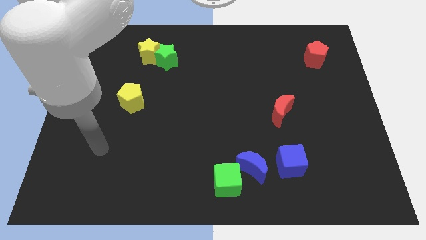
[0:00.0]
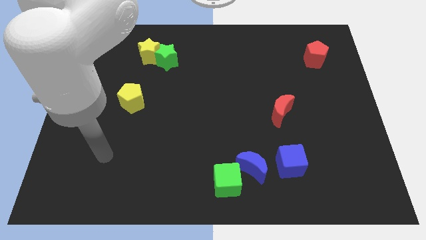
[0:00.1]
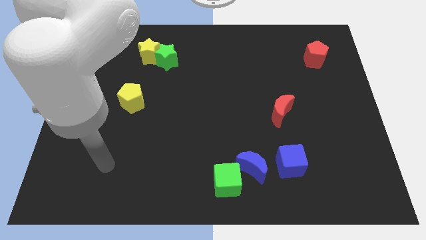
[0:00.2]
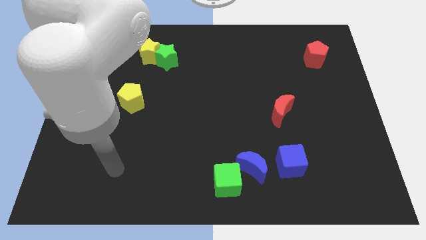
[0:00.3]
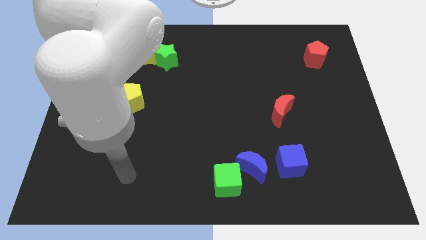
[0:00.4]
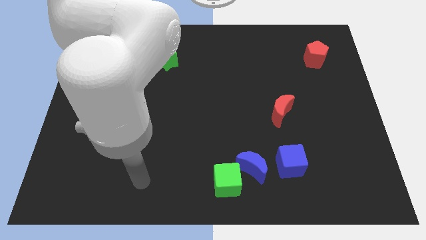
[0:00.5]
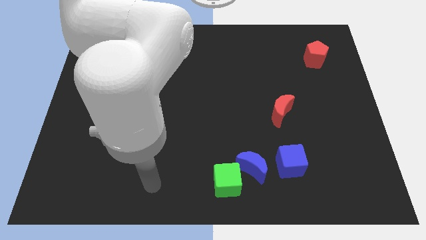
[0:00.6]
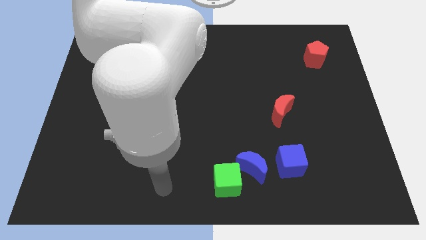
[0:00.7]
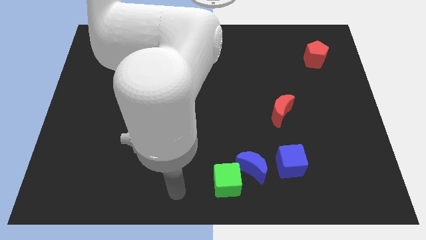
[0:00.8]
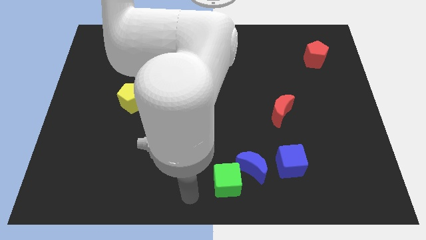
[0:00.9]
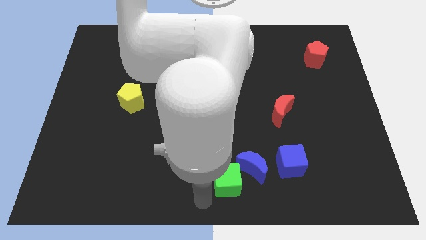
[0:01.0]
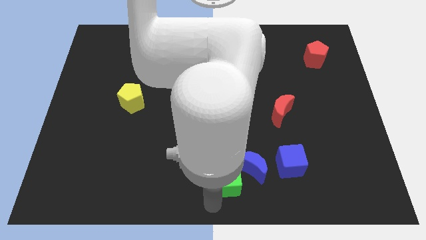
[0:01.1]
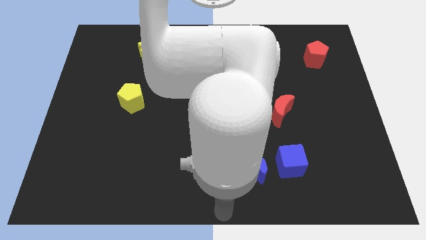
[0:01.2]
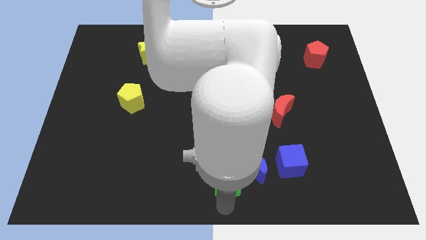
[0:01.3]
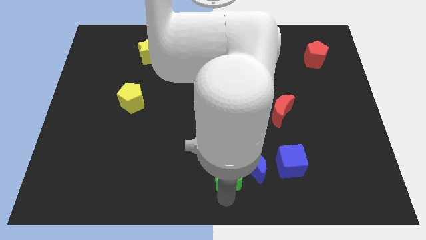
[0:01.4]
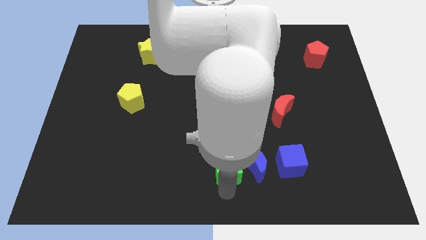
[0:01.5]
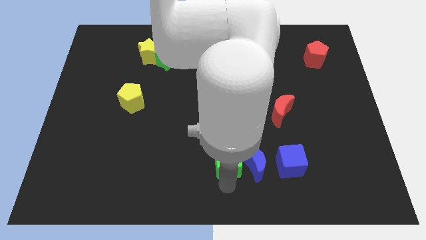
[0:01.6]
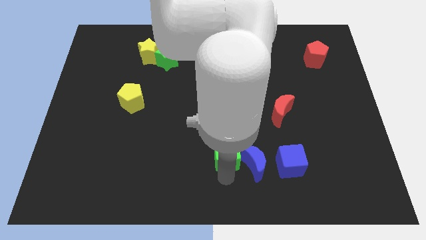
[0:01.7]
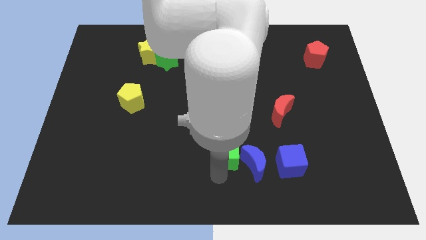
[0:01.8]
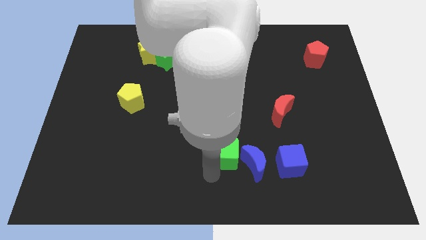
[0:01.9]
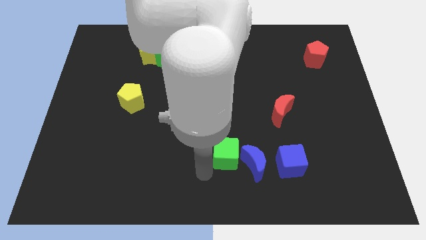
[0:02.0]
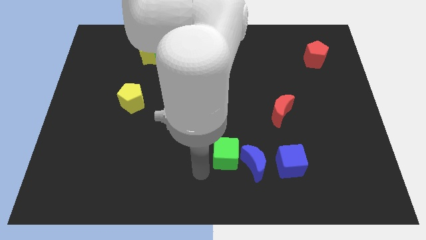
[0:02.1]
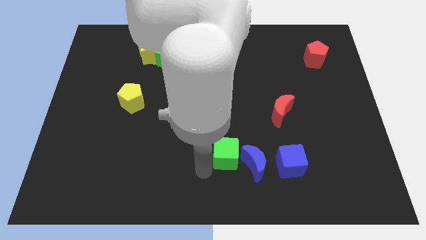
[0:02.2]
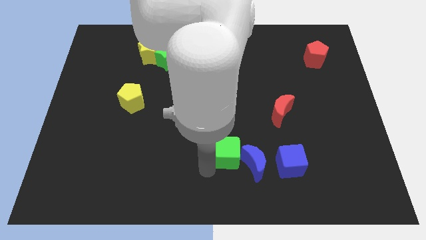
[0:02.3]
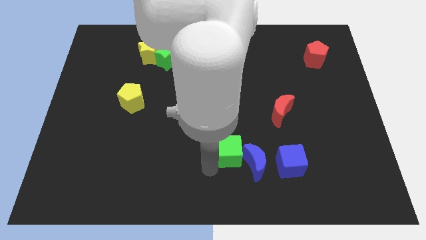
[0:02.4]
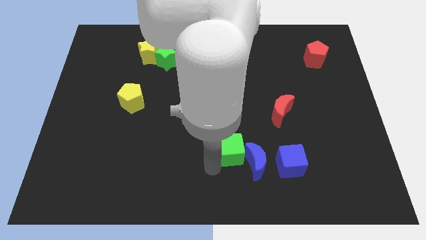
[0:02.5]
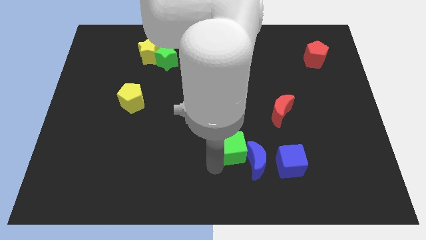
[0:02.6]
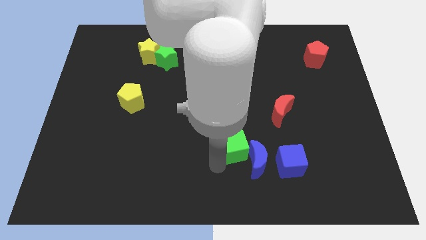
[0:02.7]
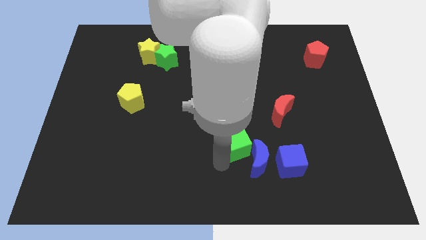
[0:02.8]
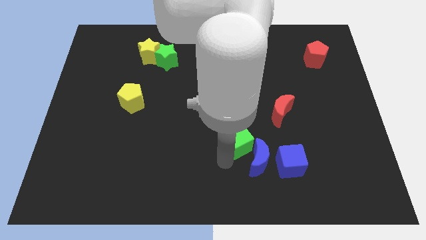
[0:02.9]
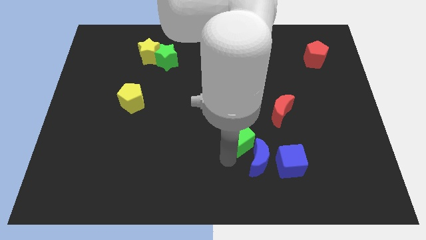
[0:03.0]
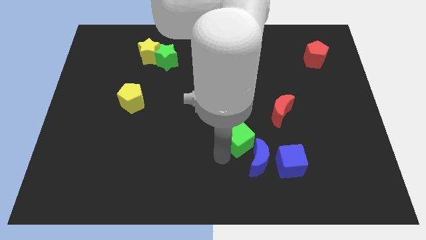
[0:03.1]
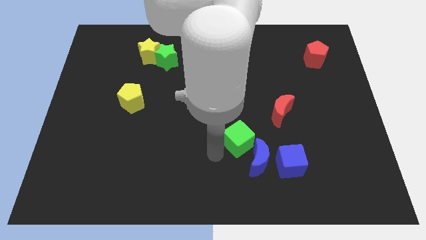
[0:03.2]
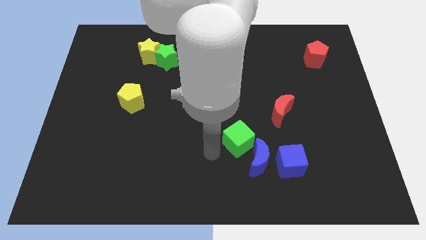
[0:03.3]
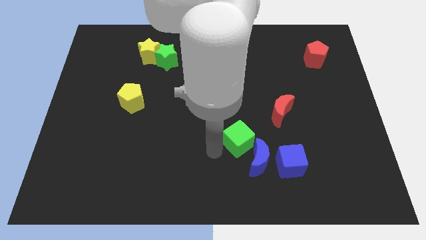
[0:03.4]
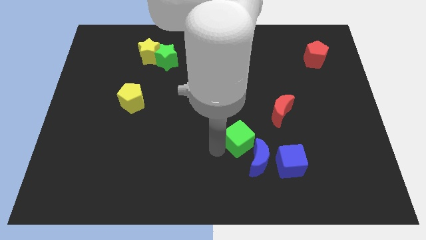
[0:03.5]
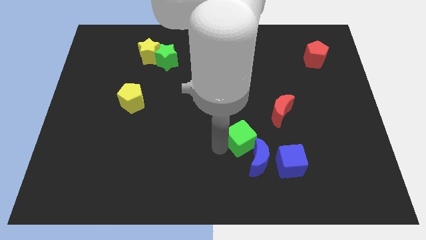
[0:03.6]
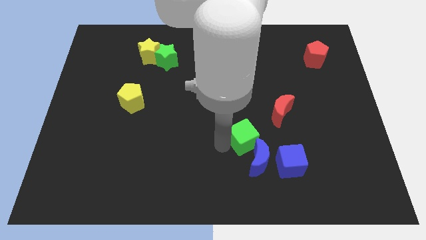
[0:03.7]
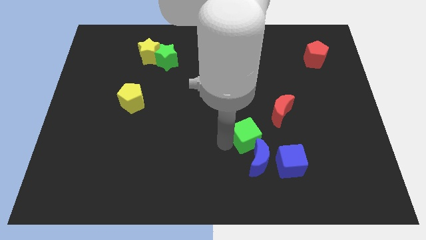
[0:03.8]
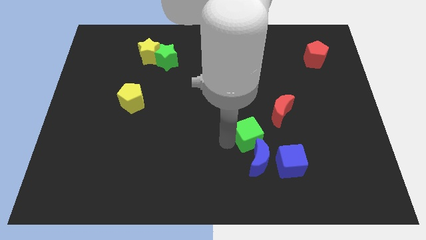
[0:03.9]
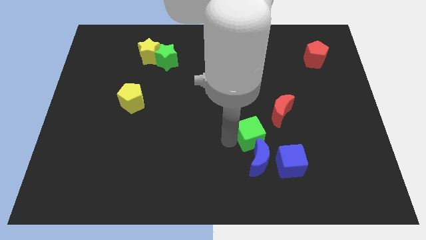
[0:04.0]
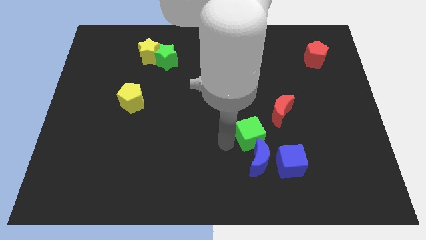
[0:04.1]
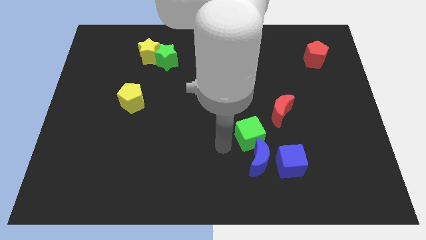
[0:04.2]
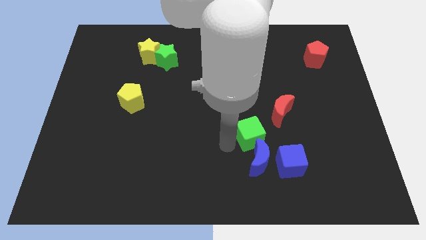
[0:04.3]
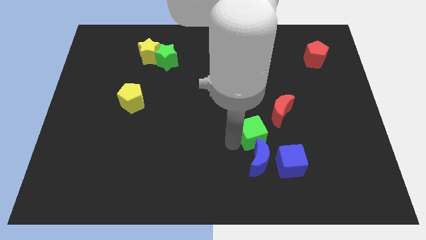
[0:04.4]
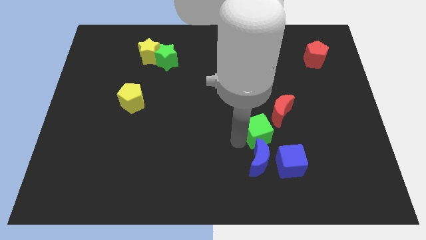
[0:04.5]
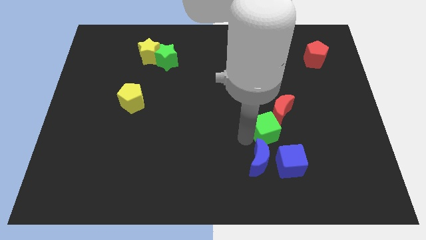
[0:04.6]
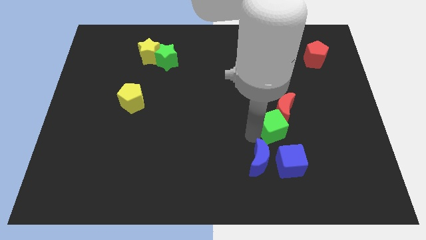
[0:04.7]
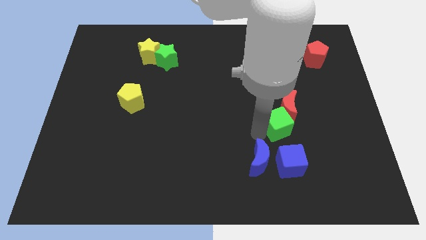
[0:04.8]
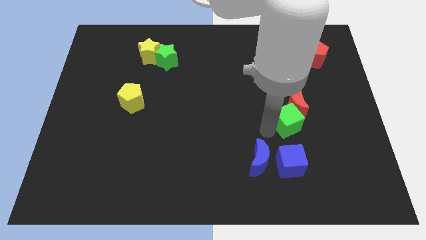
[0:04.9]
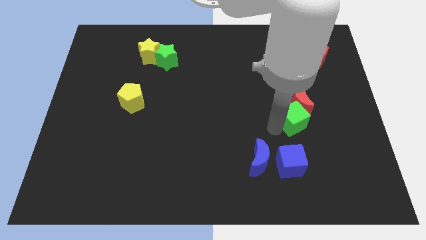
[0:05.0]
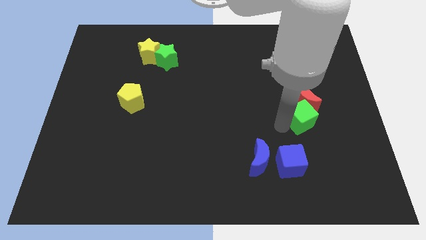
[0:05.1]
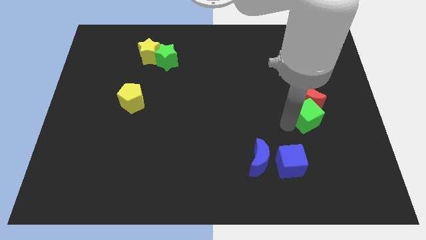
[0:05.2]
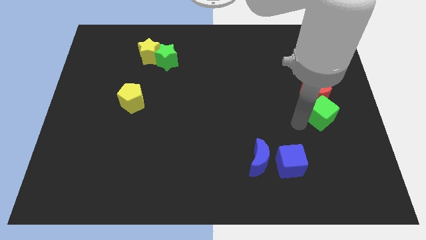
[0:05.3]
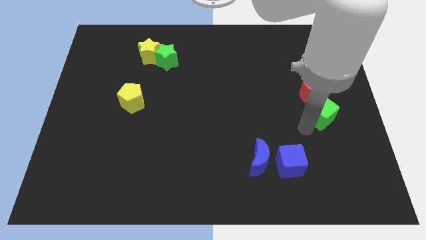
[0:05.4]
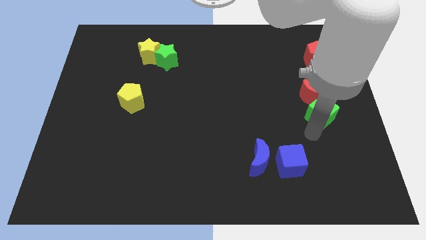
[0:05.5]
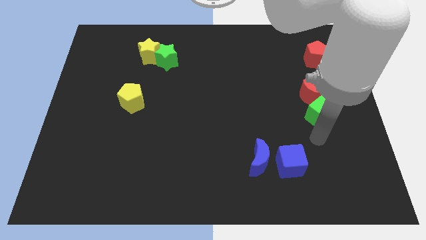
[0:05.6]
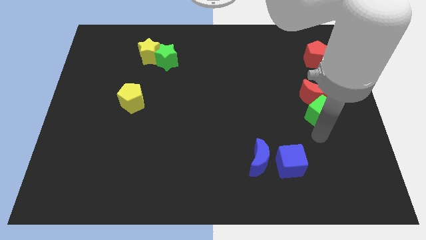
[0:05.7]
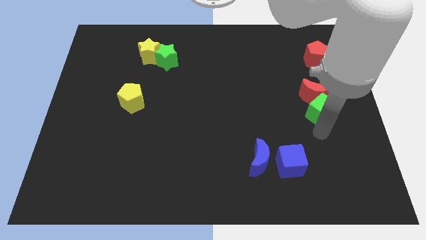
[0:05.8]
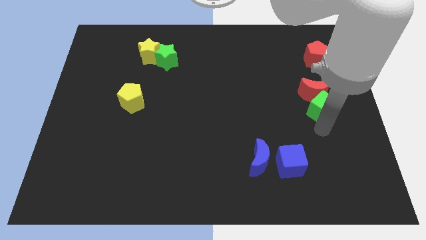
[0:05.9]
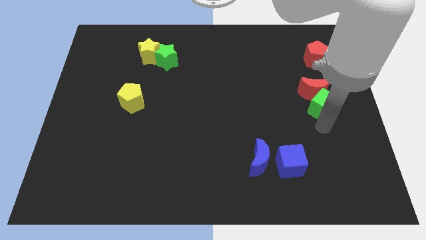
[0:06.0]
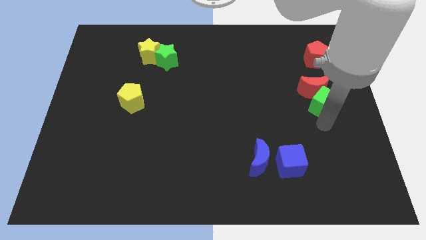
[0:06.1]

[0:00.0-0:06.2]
slide the green cube to the bottom side of the red pentagon
